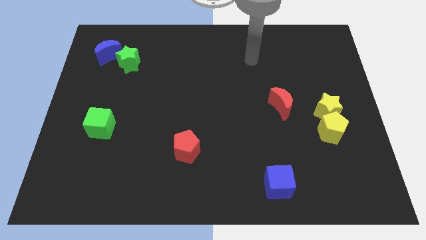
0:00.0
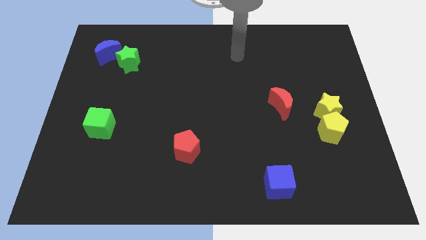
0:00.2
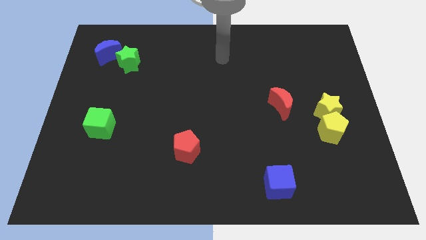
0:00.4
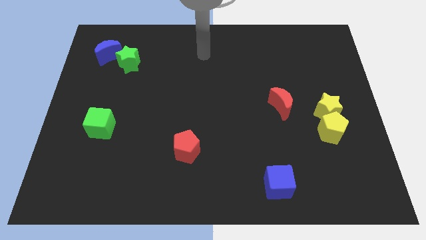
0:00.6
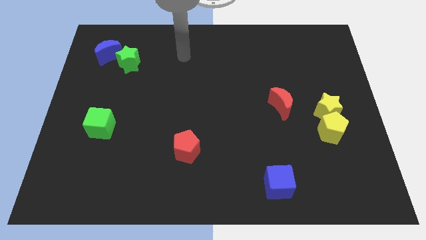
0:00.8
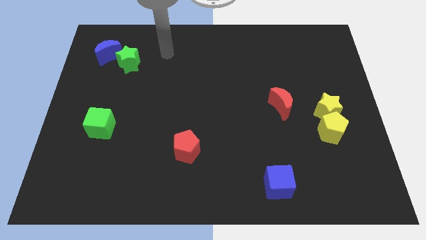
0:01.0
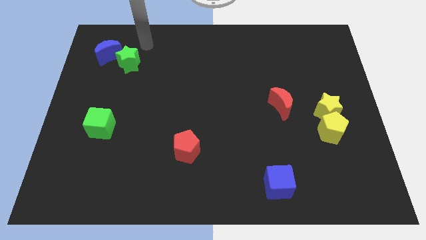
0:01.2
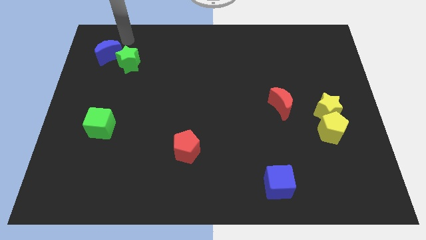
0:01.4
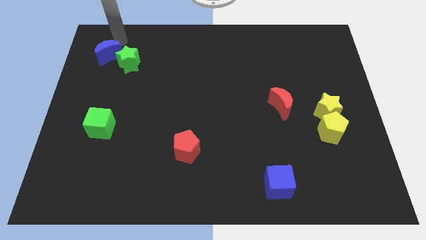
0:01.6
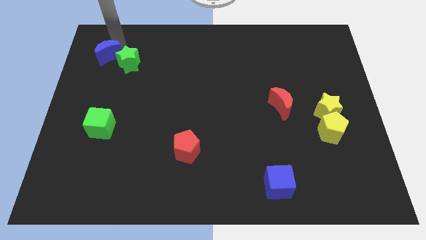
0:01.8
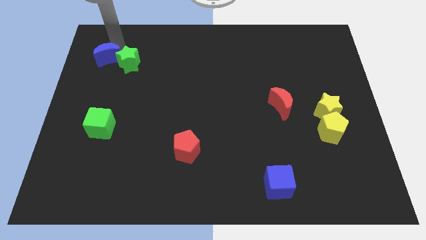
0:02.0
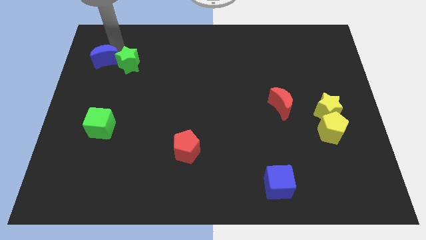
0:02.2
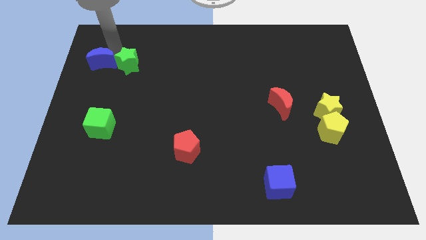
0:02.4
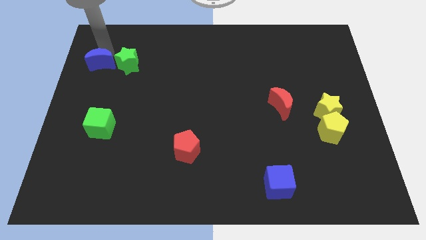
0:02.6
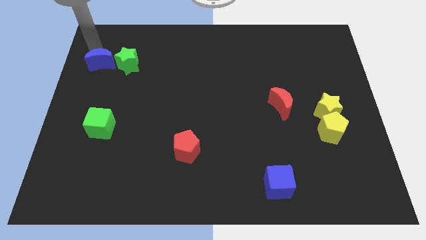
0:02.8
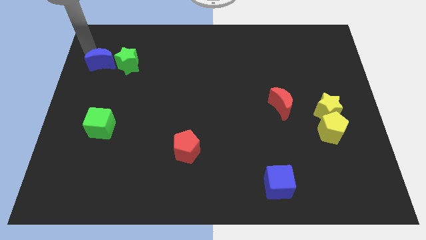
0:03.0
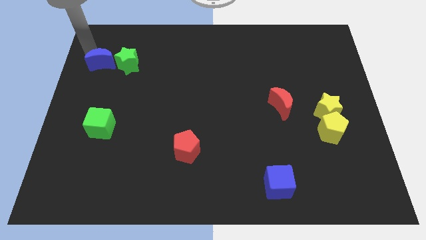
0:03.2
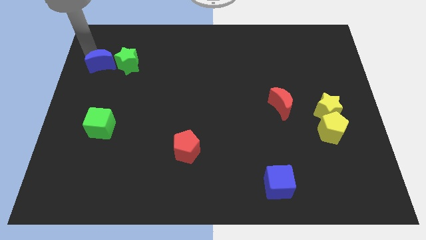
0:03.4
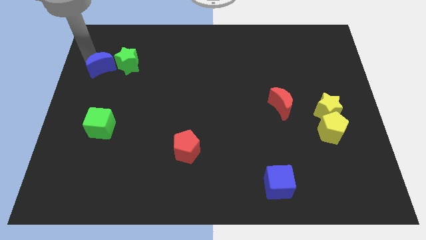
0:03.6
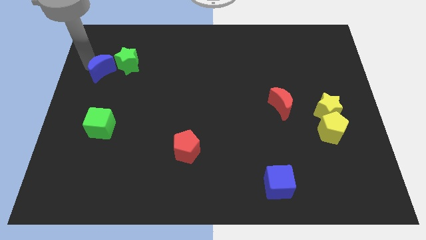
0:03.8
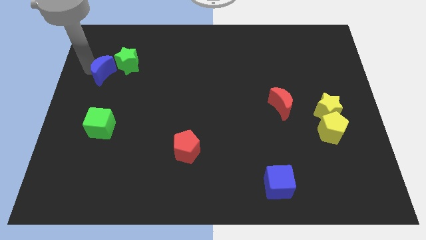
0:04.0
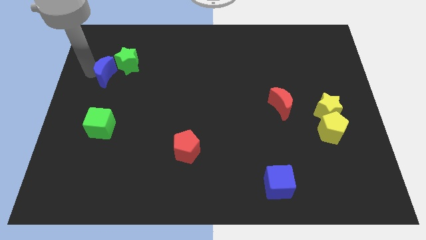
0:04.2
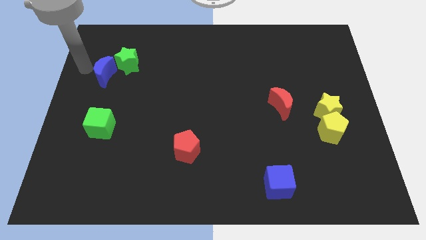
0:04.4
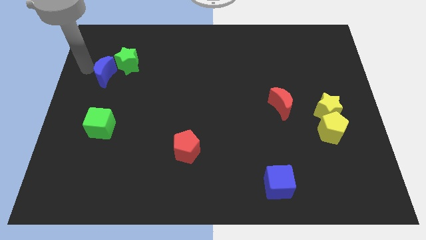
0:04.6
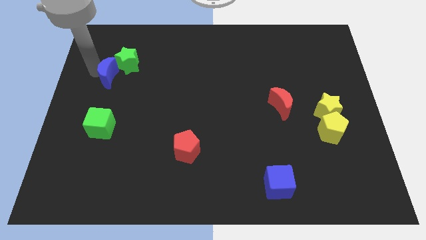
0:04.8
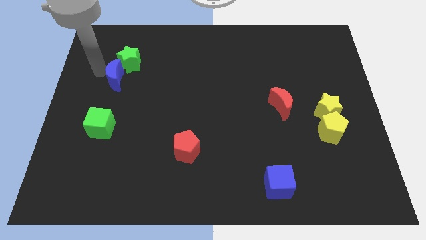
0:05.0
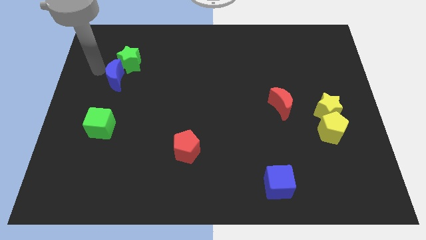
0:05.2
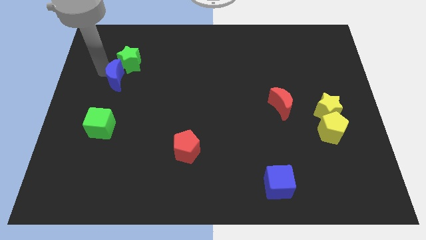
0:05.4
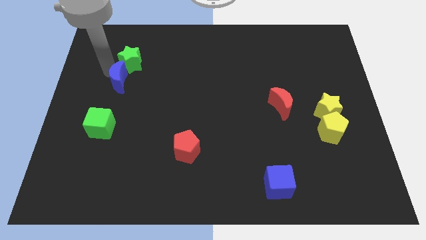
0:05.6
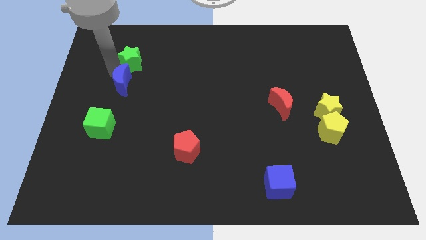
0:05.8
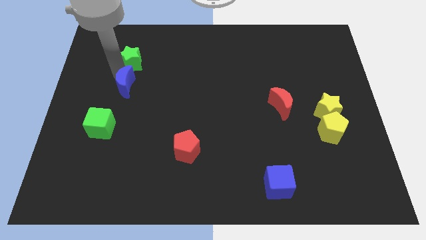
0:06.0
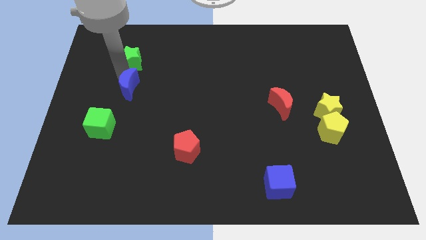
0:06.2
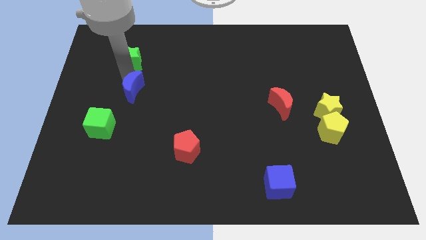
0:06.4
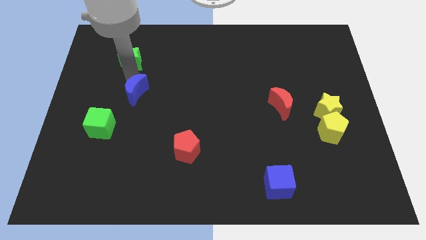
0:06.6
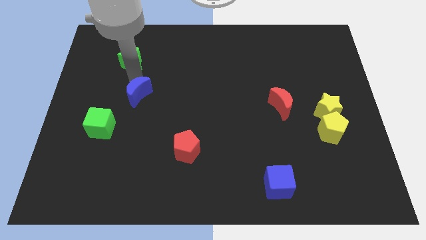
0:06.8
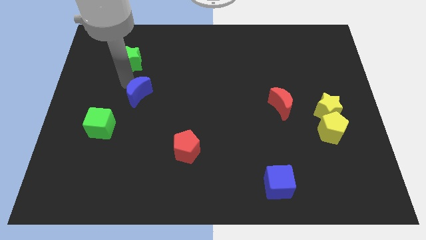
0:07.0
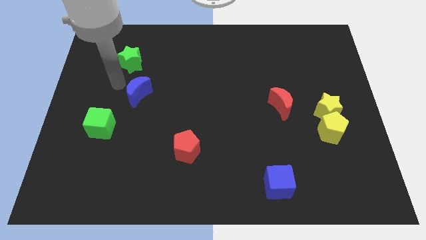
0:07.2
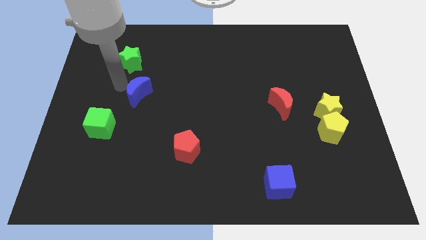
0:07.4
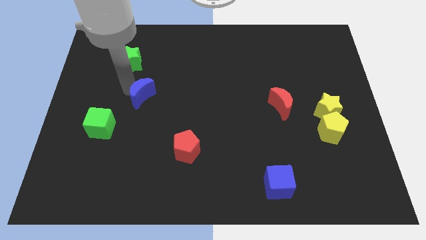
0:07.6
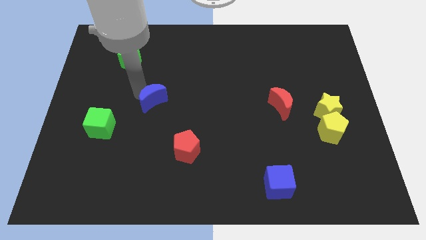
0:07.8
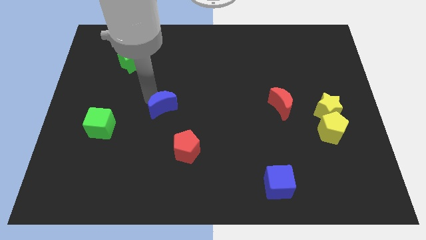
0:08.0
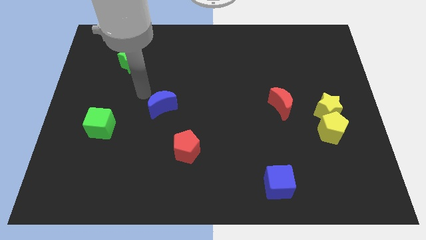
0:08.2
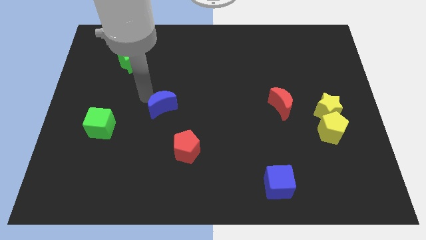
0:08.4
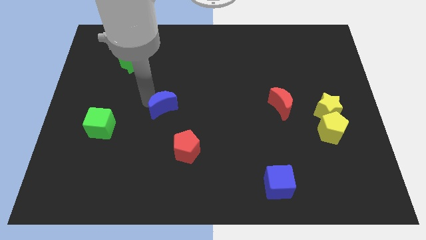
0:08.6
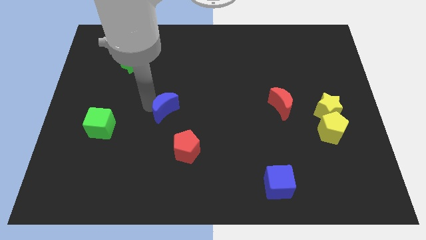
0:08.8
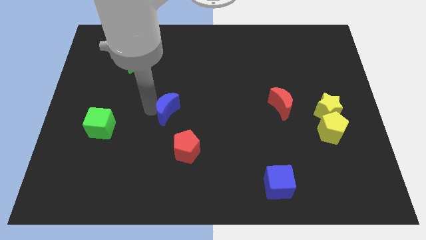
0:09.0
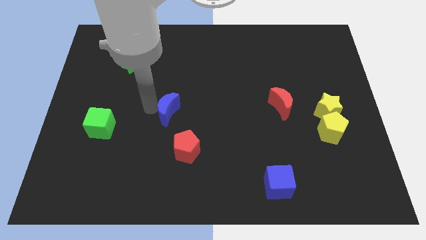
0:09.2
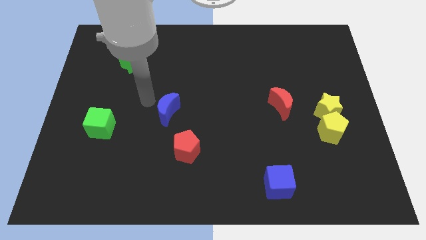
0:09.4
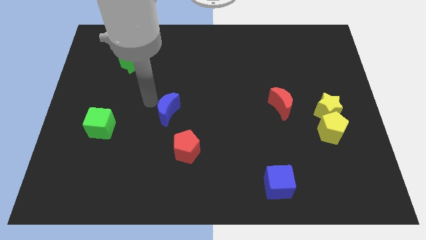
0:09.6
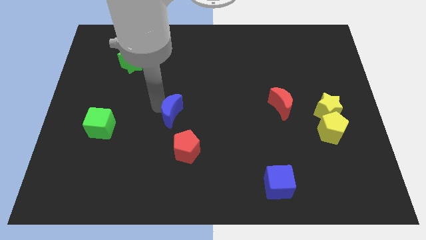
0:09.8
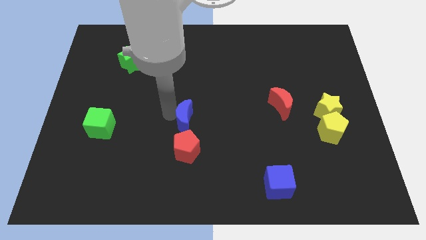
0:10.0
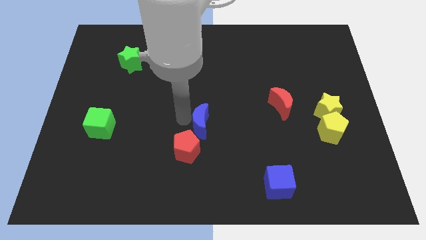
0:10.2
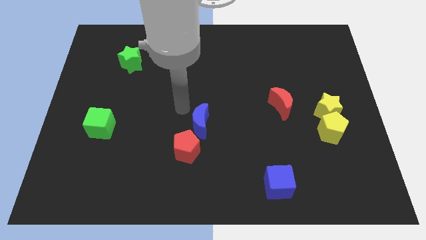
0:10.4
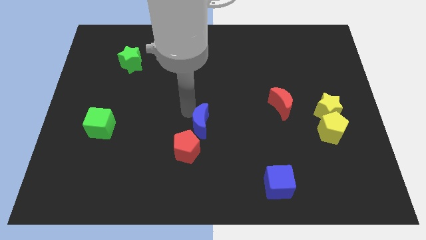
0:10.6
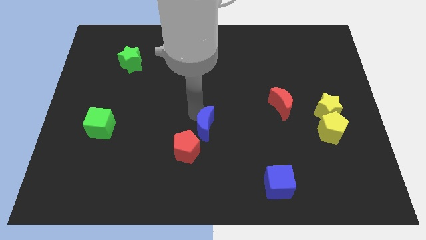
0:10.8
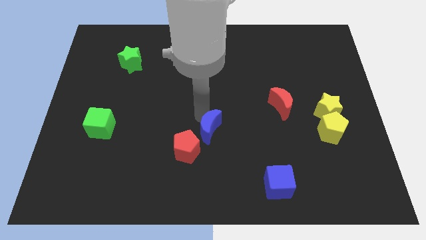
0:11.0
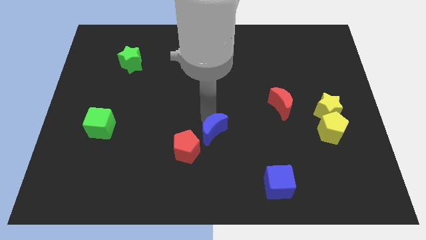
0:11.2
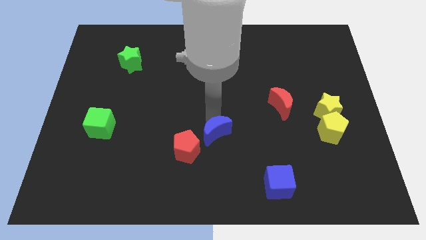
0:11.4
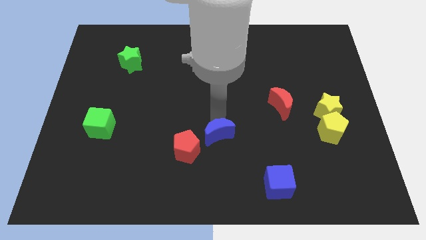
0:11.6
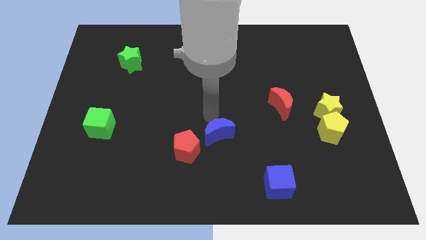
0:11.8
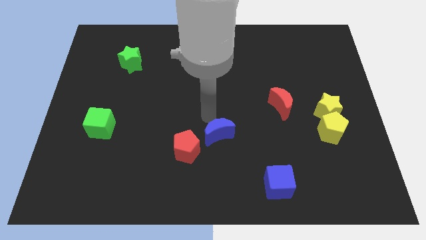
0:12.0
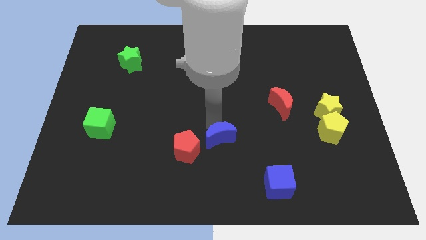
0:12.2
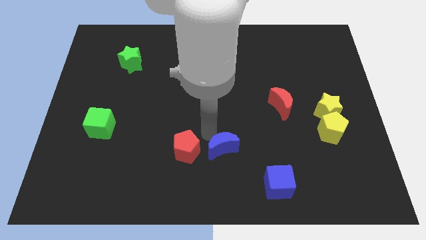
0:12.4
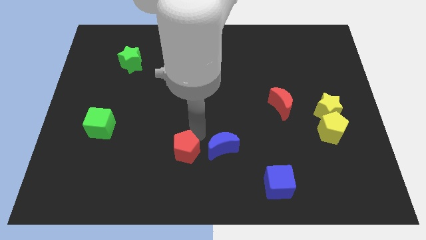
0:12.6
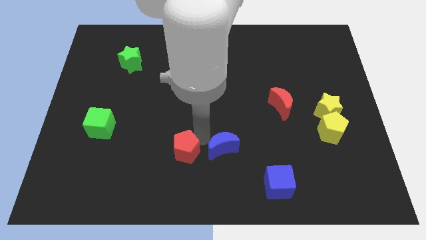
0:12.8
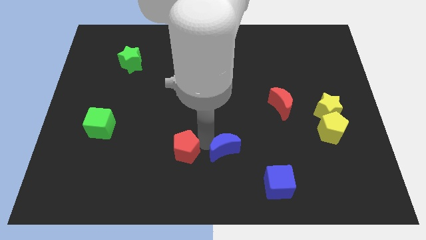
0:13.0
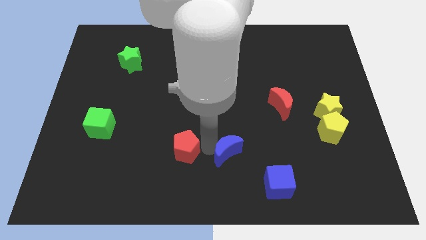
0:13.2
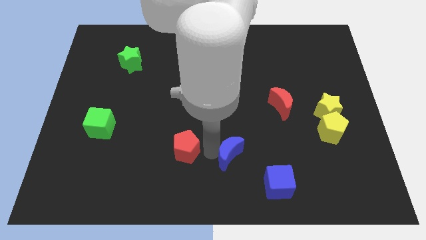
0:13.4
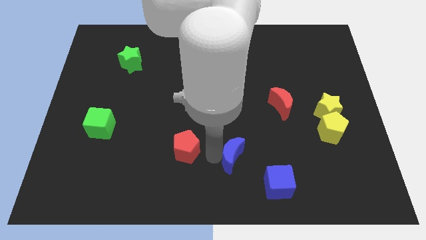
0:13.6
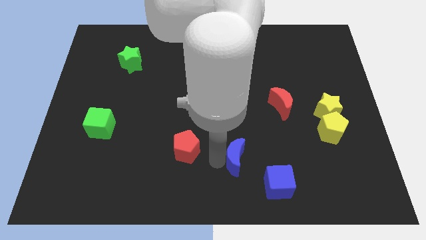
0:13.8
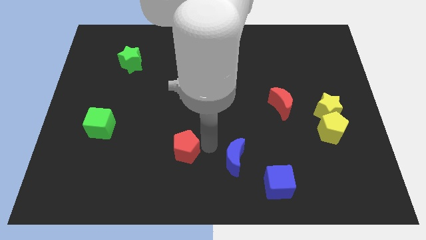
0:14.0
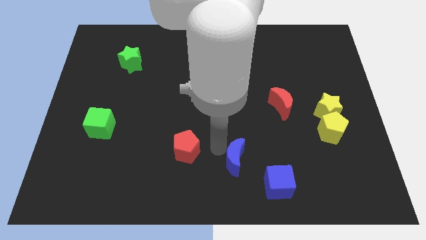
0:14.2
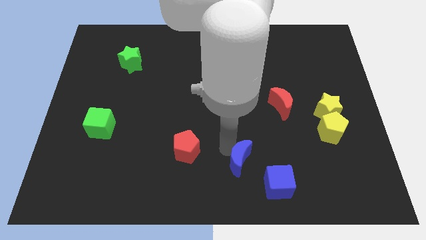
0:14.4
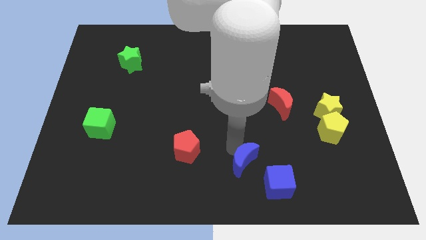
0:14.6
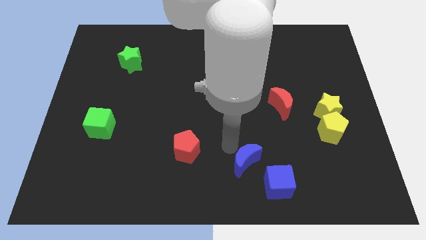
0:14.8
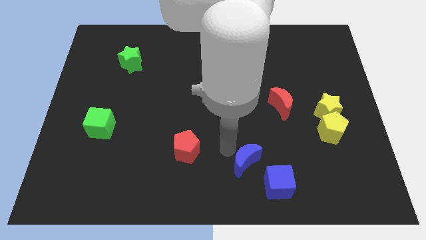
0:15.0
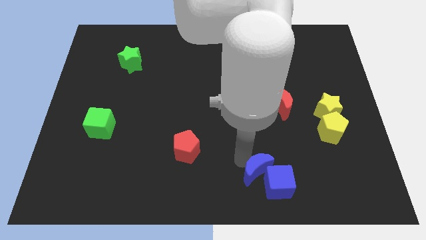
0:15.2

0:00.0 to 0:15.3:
put the blue moon to the blue cube
